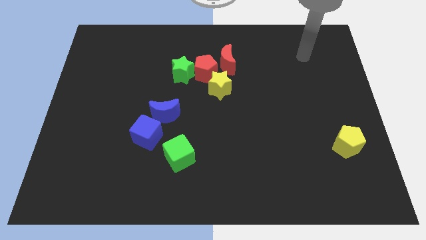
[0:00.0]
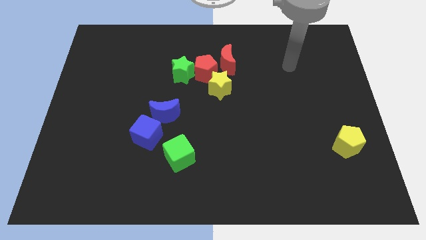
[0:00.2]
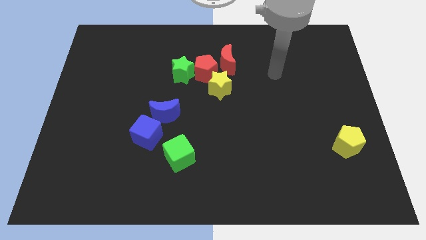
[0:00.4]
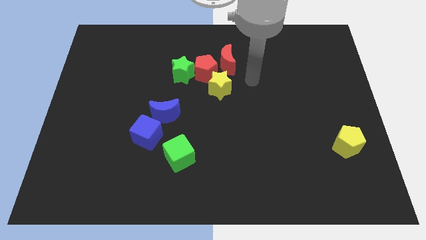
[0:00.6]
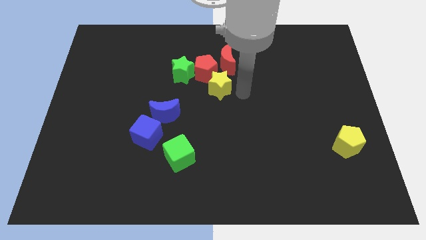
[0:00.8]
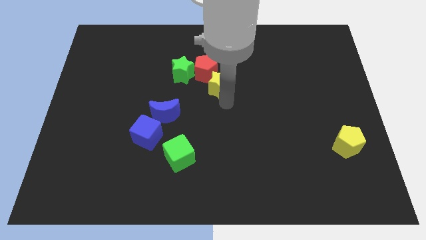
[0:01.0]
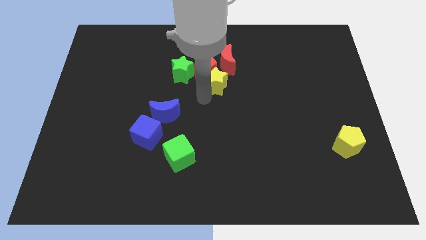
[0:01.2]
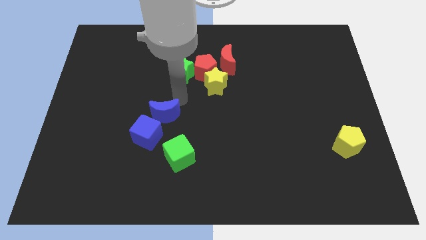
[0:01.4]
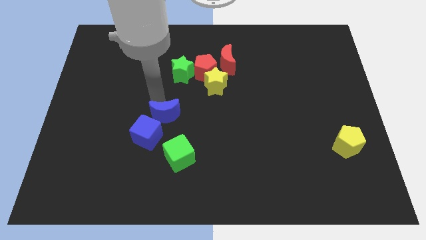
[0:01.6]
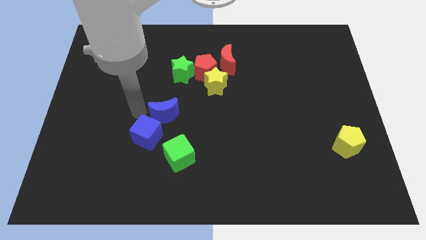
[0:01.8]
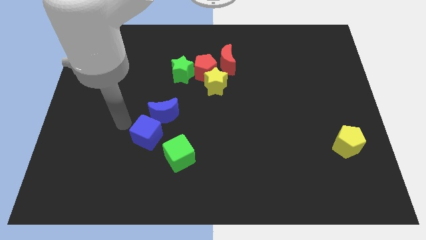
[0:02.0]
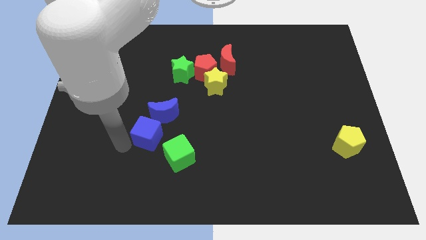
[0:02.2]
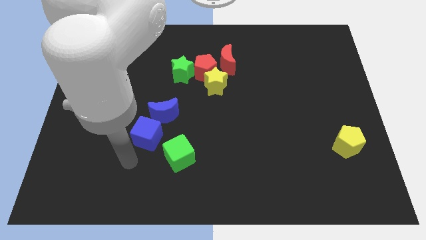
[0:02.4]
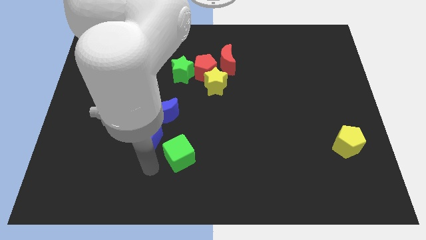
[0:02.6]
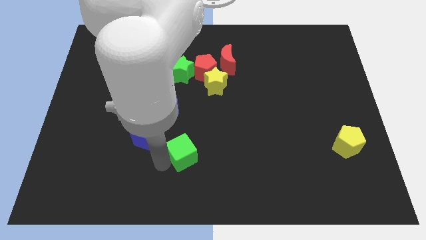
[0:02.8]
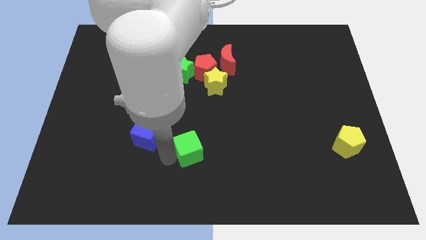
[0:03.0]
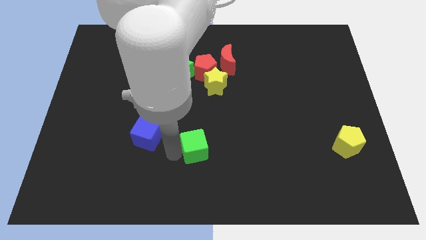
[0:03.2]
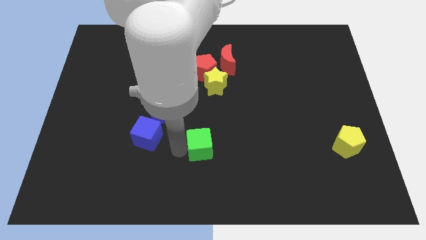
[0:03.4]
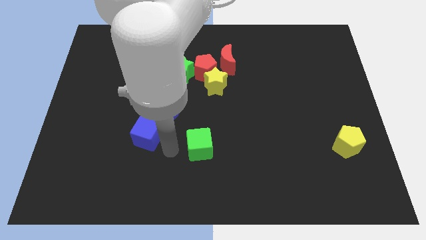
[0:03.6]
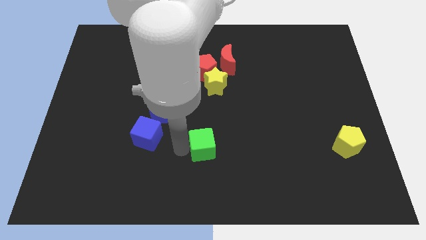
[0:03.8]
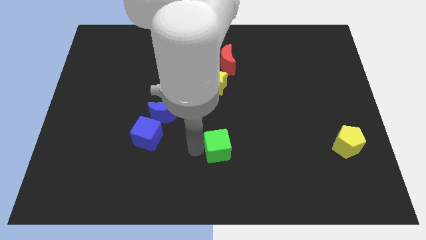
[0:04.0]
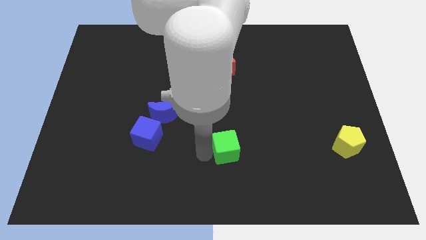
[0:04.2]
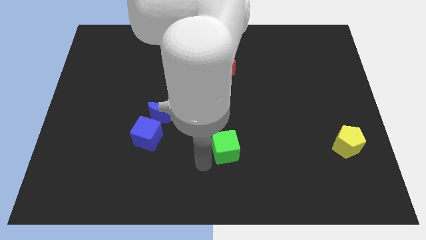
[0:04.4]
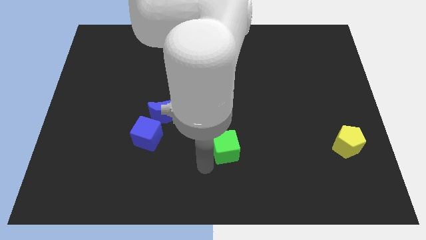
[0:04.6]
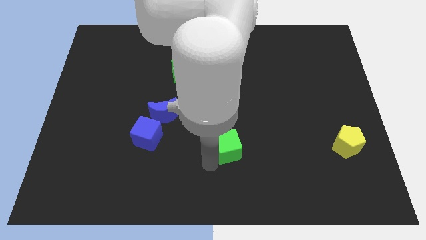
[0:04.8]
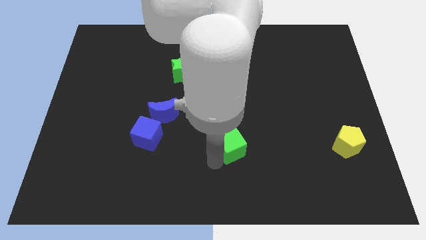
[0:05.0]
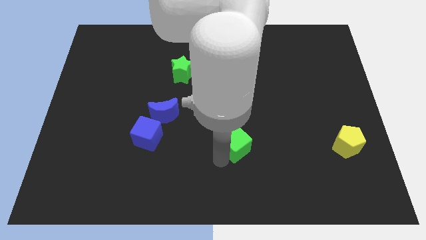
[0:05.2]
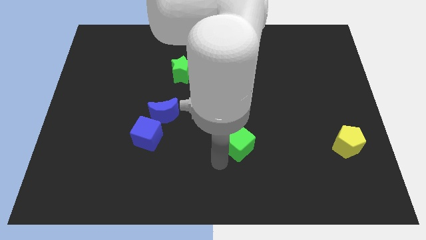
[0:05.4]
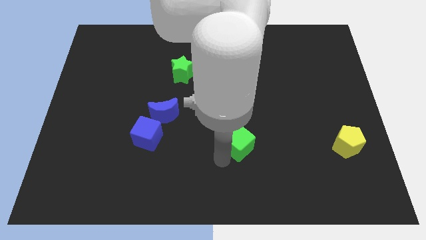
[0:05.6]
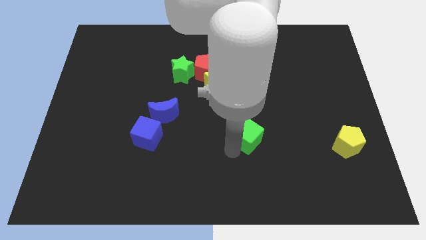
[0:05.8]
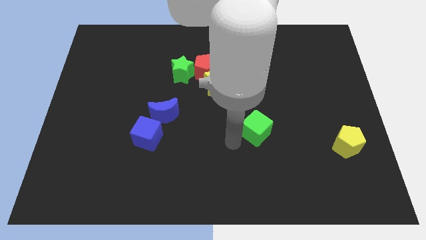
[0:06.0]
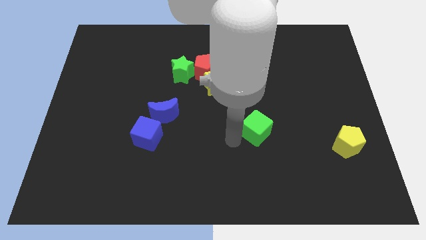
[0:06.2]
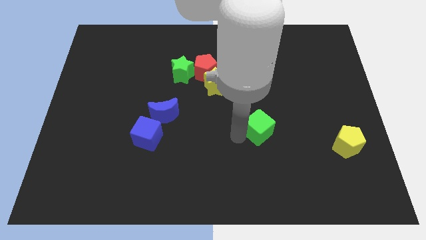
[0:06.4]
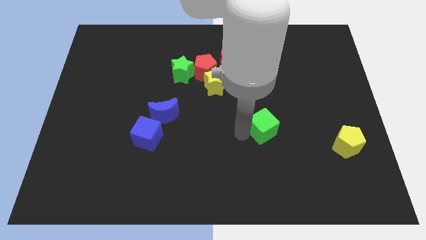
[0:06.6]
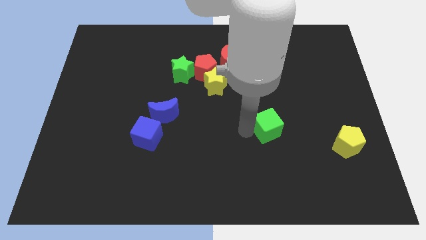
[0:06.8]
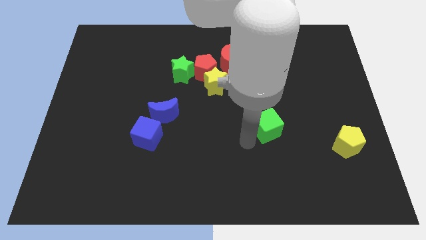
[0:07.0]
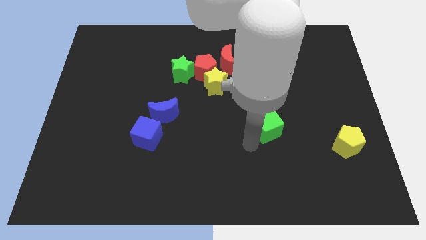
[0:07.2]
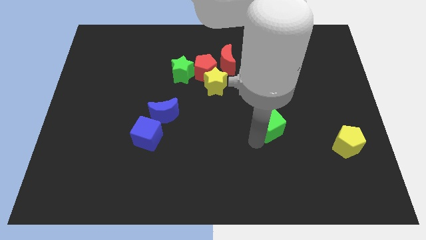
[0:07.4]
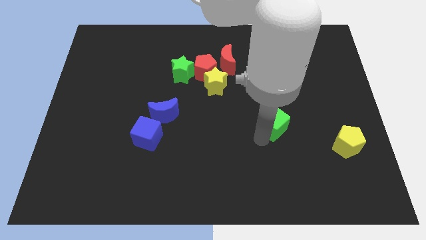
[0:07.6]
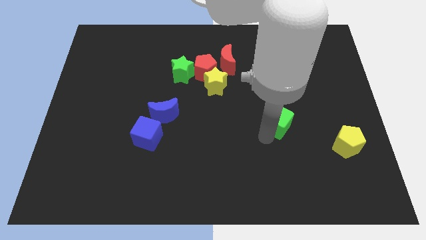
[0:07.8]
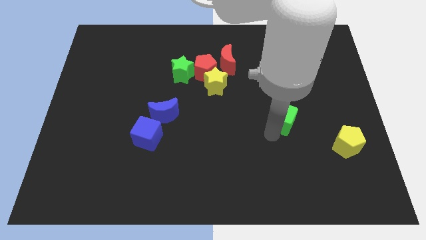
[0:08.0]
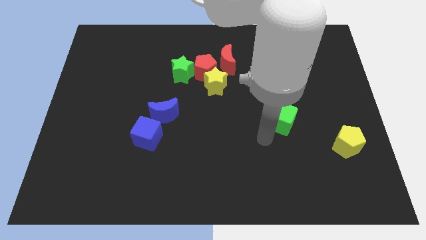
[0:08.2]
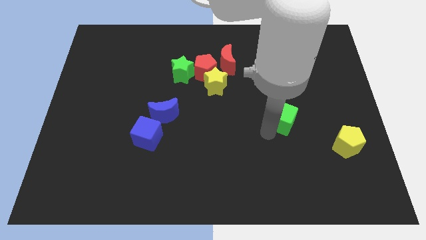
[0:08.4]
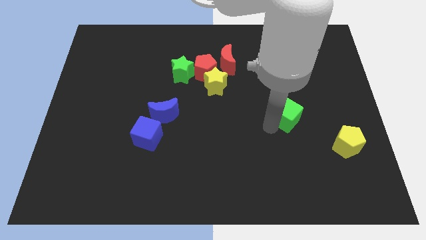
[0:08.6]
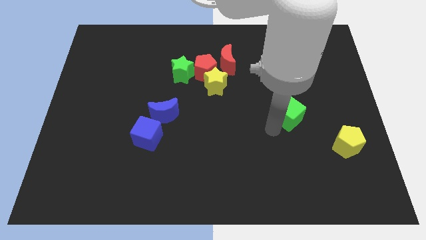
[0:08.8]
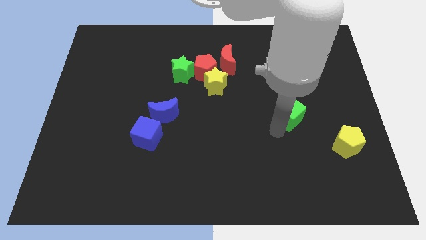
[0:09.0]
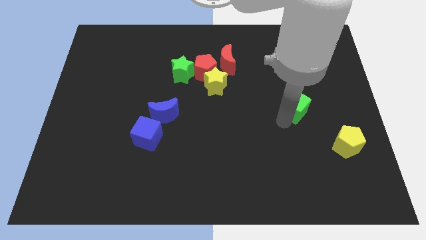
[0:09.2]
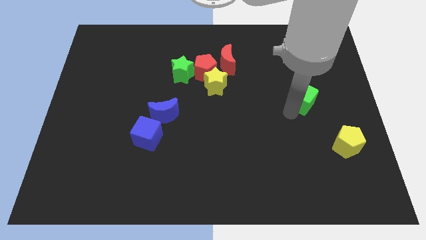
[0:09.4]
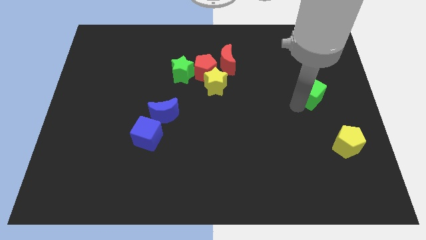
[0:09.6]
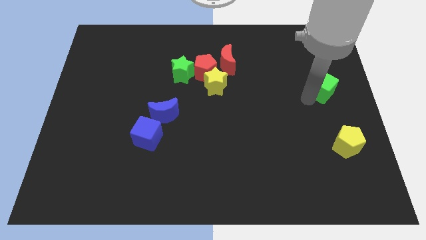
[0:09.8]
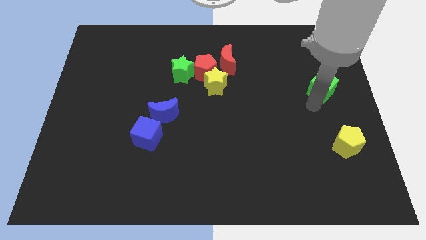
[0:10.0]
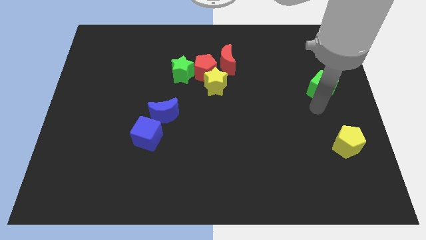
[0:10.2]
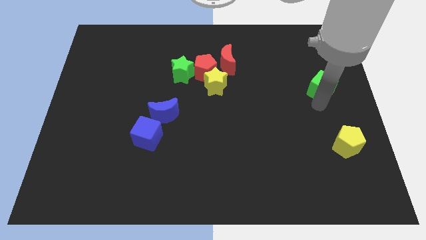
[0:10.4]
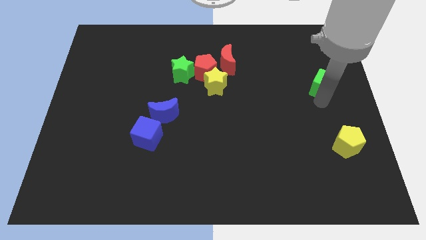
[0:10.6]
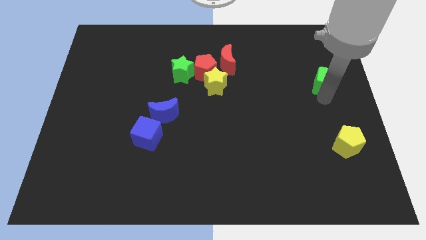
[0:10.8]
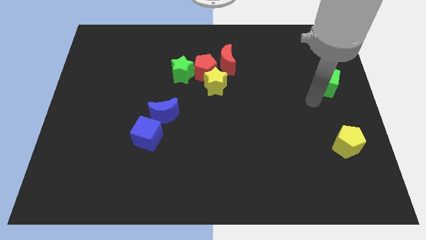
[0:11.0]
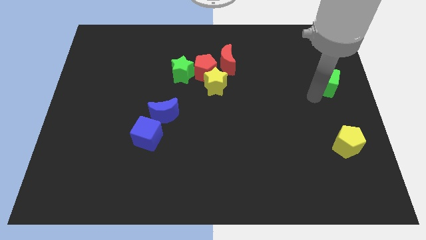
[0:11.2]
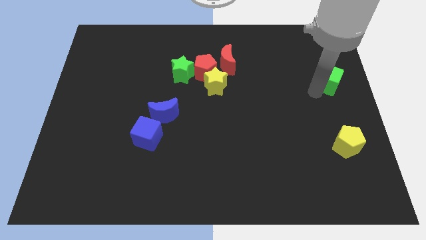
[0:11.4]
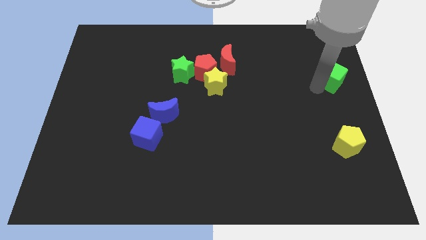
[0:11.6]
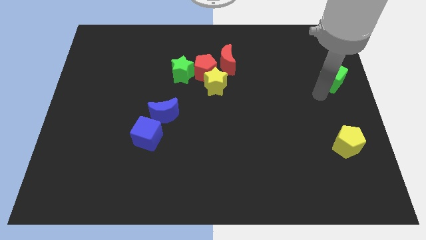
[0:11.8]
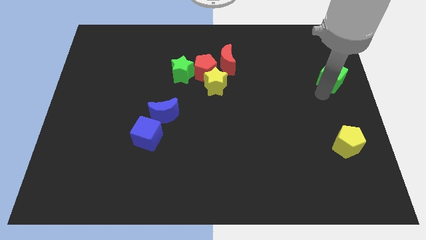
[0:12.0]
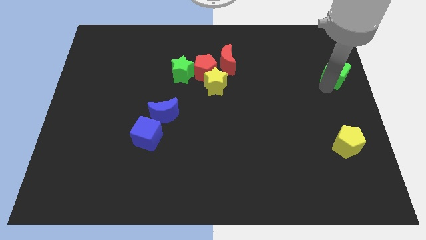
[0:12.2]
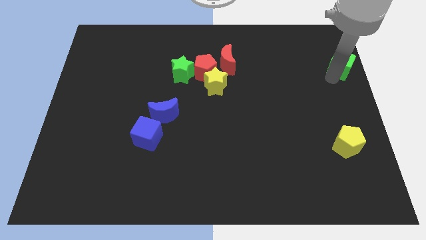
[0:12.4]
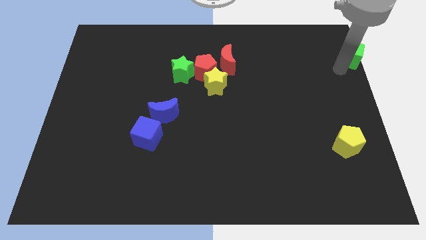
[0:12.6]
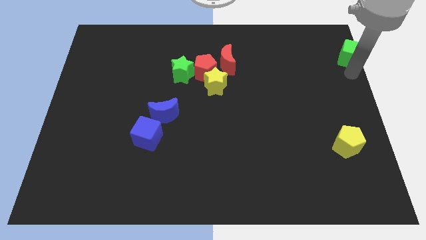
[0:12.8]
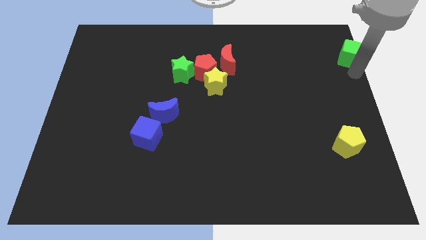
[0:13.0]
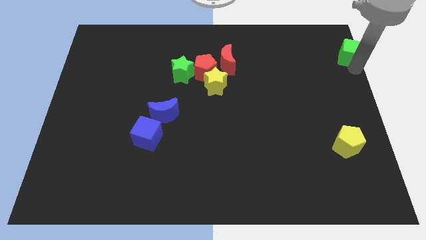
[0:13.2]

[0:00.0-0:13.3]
put the green cube to the top right of the board

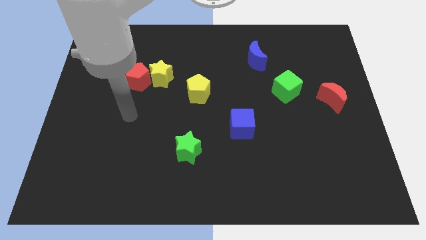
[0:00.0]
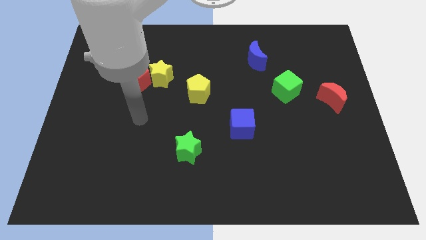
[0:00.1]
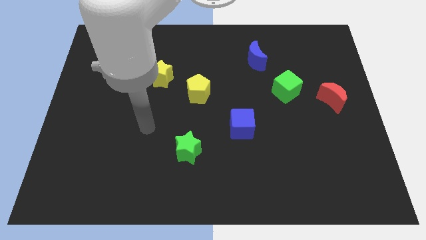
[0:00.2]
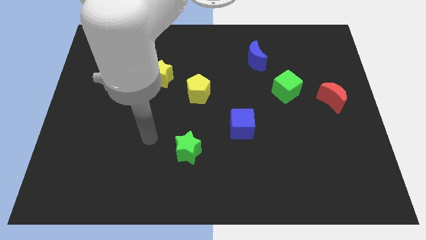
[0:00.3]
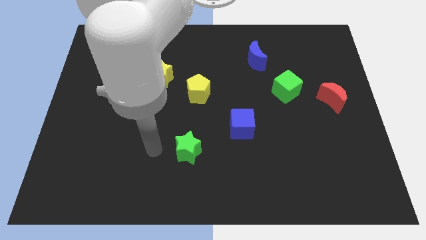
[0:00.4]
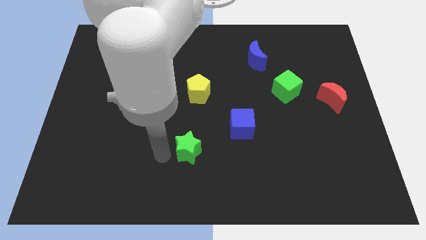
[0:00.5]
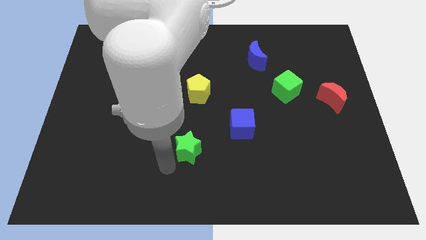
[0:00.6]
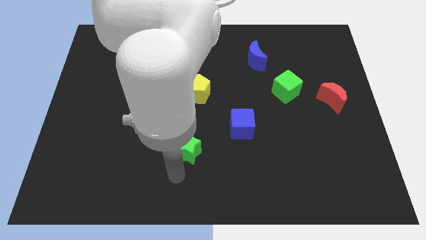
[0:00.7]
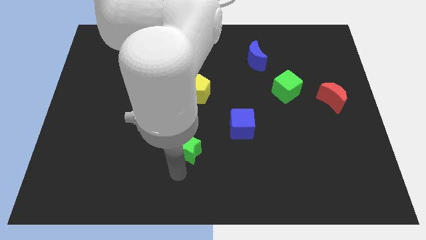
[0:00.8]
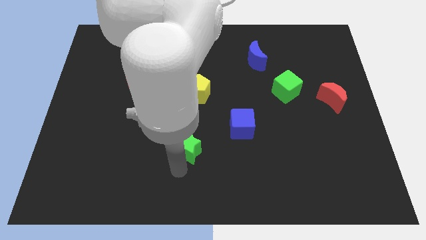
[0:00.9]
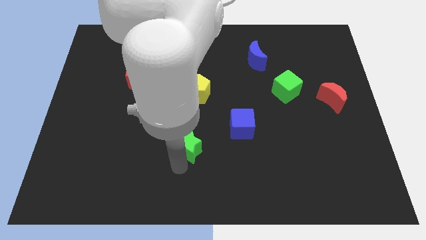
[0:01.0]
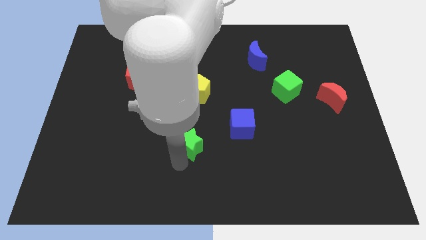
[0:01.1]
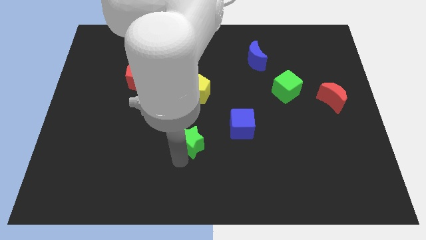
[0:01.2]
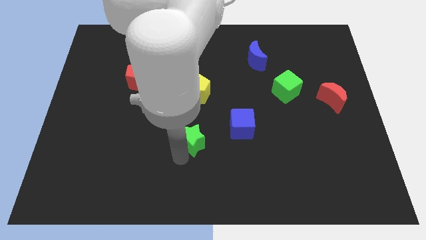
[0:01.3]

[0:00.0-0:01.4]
slide the green star to the center
